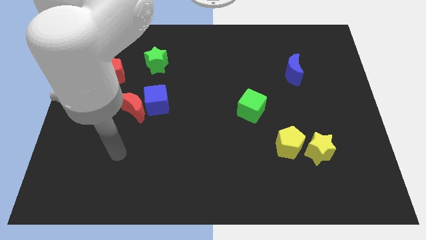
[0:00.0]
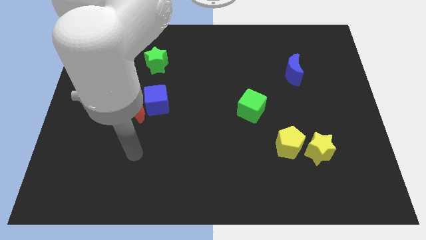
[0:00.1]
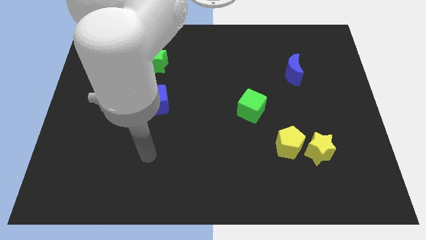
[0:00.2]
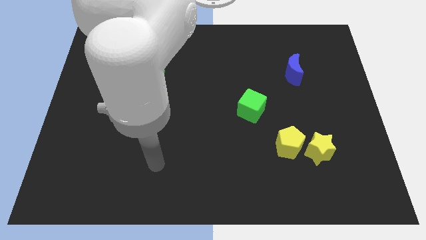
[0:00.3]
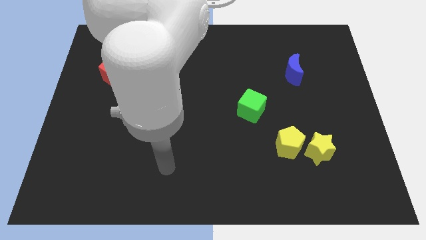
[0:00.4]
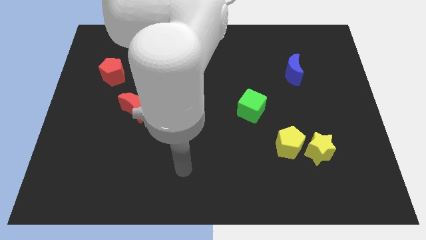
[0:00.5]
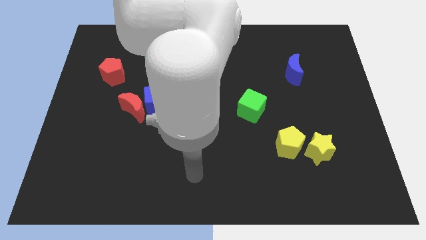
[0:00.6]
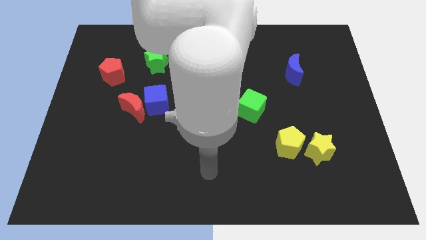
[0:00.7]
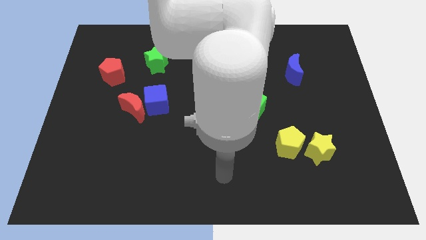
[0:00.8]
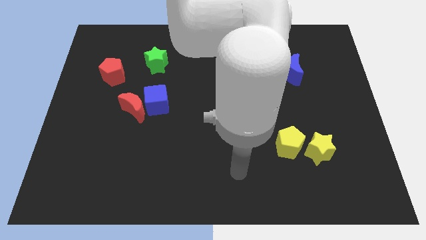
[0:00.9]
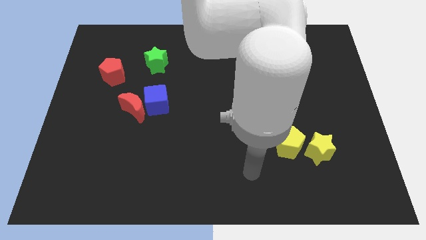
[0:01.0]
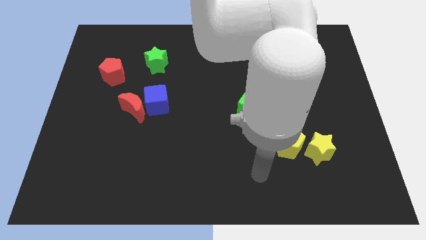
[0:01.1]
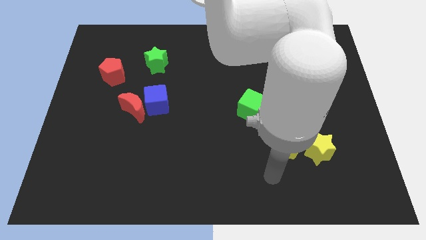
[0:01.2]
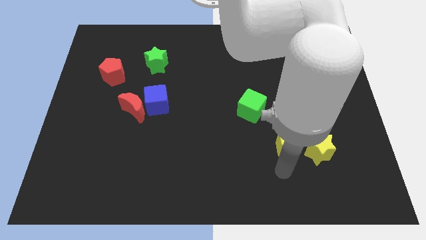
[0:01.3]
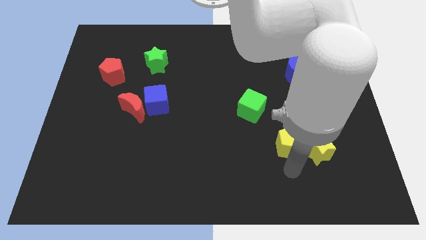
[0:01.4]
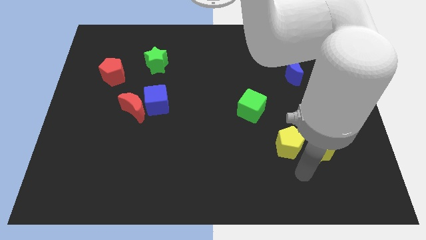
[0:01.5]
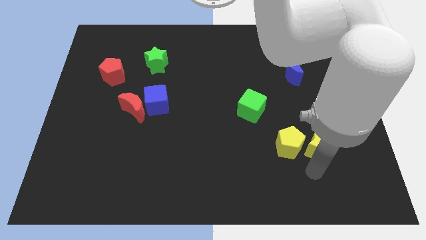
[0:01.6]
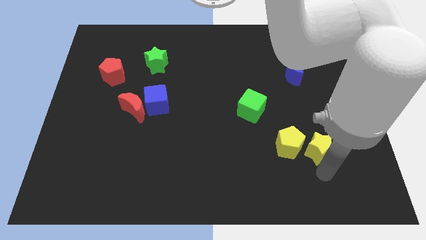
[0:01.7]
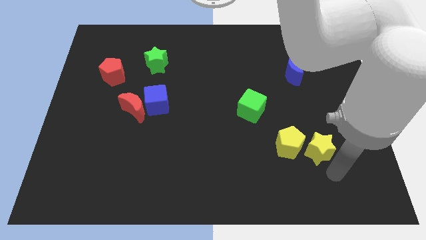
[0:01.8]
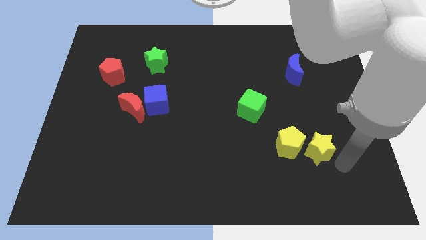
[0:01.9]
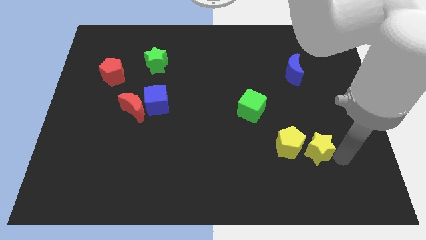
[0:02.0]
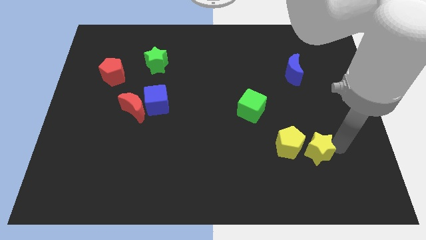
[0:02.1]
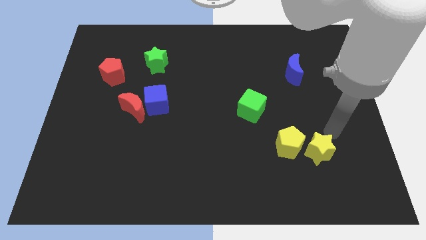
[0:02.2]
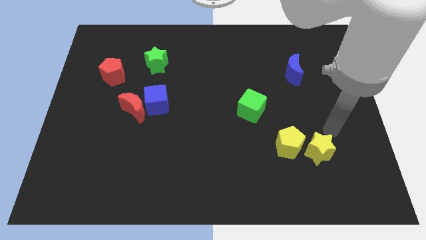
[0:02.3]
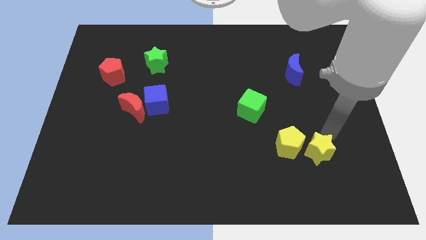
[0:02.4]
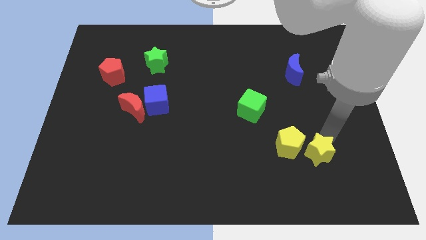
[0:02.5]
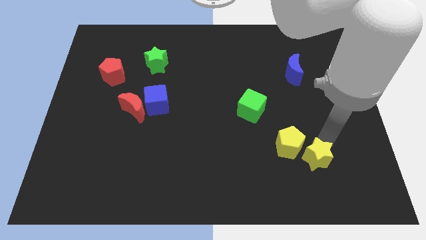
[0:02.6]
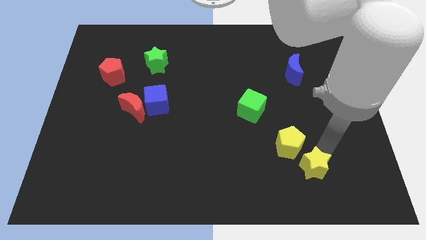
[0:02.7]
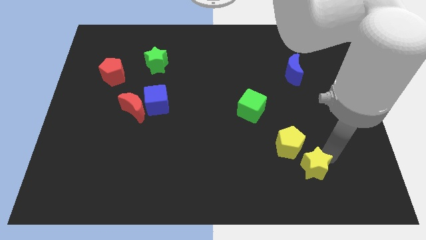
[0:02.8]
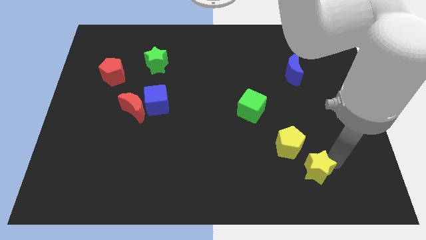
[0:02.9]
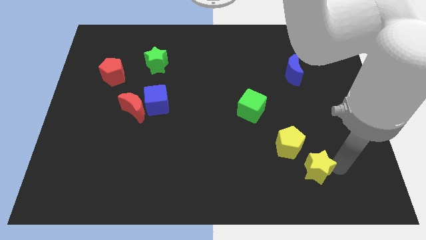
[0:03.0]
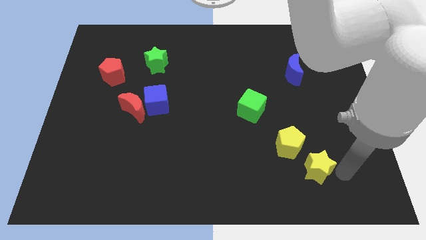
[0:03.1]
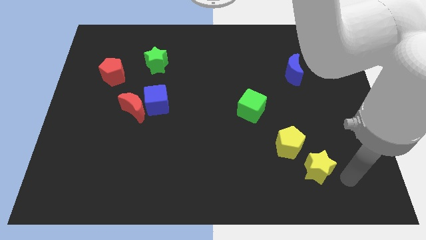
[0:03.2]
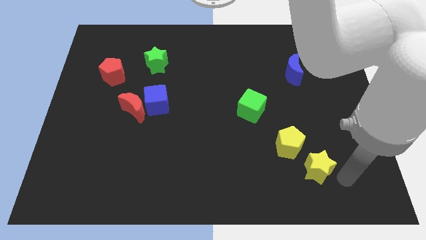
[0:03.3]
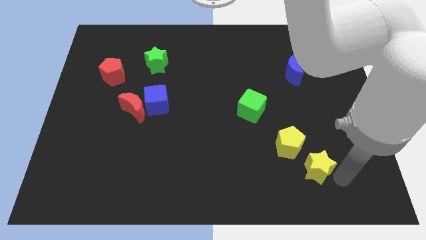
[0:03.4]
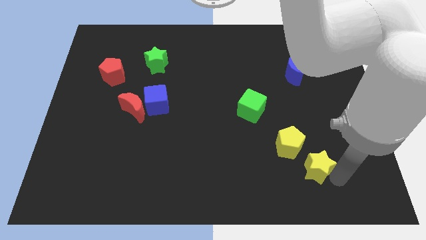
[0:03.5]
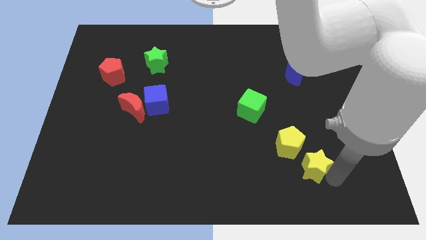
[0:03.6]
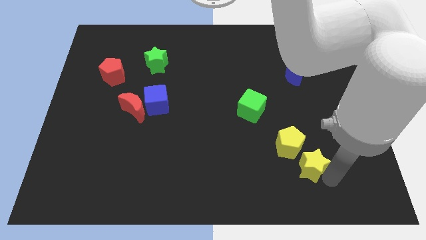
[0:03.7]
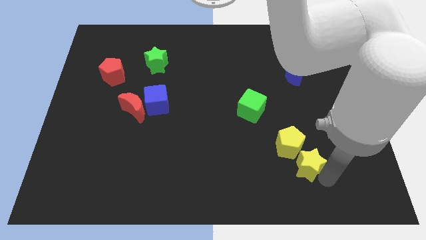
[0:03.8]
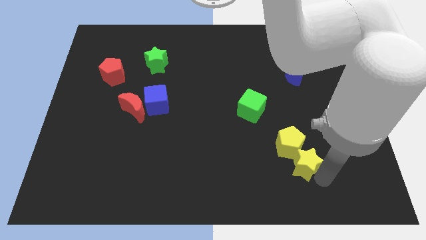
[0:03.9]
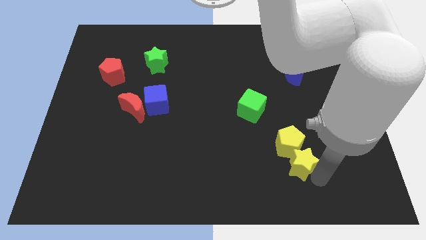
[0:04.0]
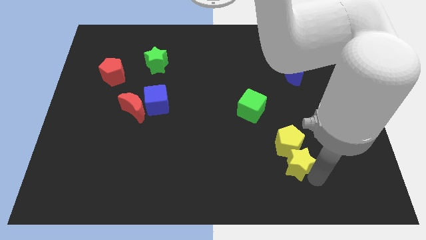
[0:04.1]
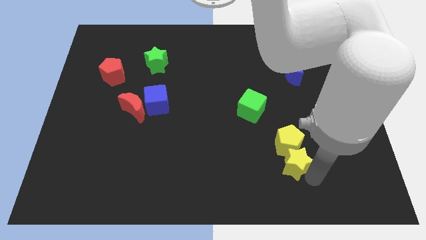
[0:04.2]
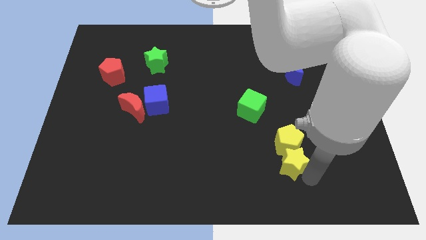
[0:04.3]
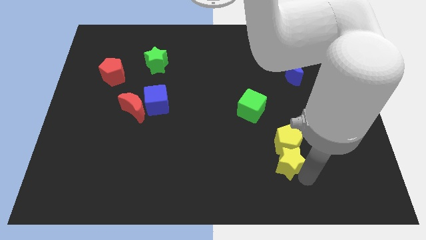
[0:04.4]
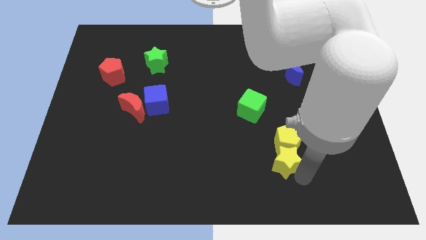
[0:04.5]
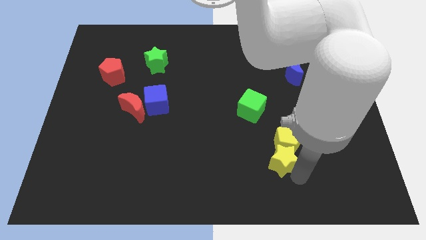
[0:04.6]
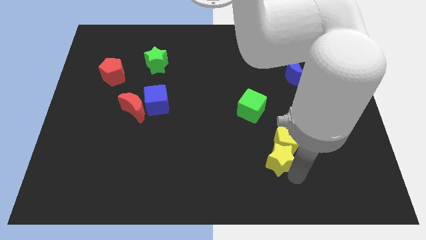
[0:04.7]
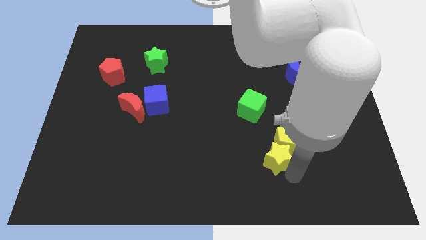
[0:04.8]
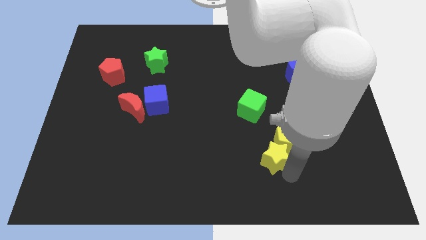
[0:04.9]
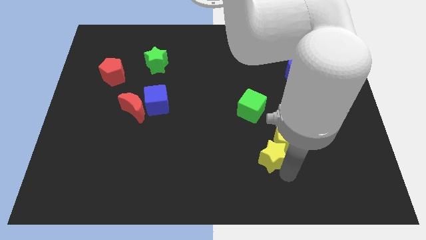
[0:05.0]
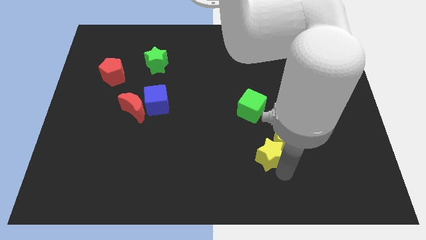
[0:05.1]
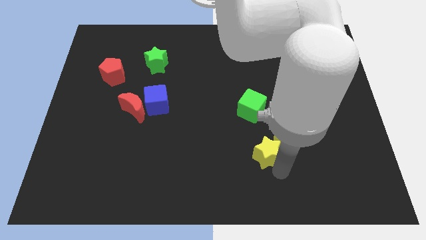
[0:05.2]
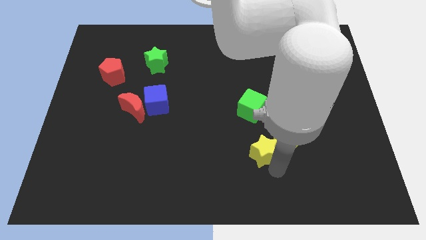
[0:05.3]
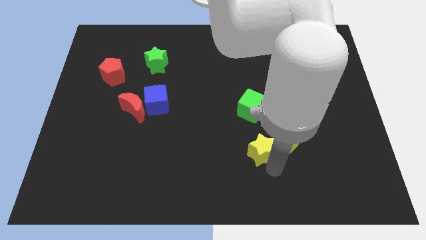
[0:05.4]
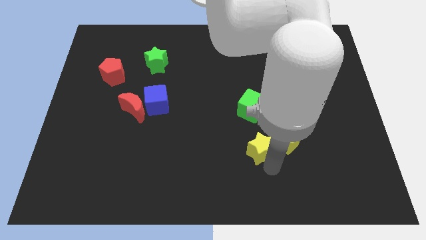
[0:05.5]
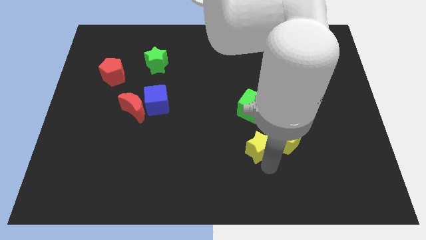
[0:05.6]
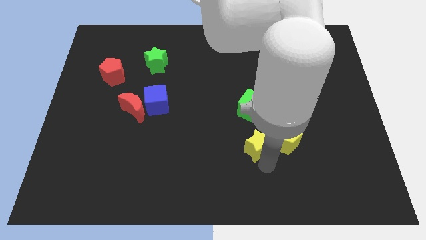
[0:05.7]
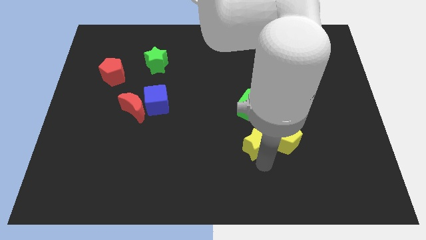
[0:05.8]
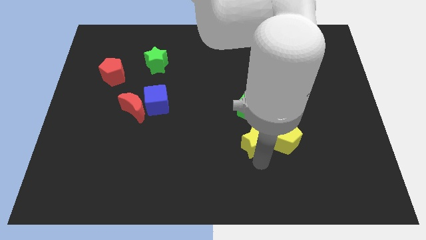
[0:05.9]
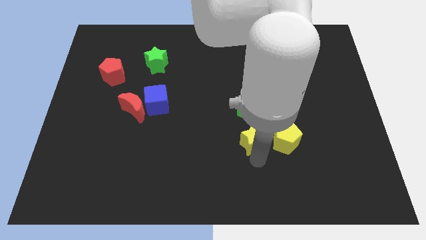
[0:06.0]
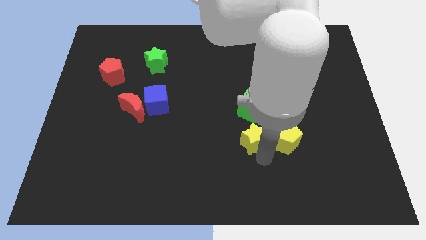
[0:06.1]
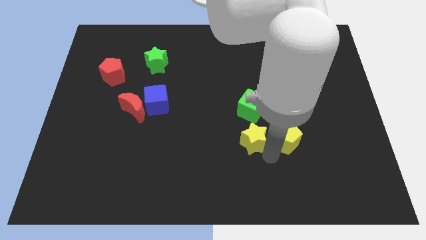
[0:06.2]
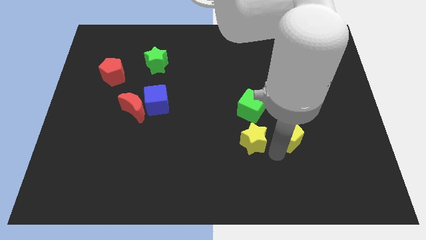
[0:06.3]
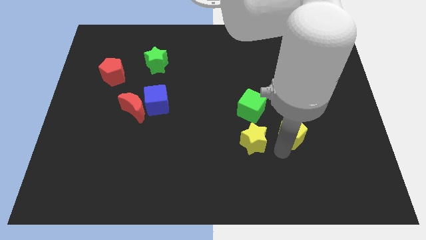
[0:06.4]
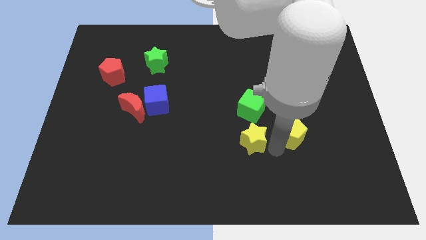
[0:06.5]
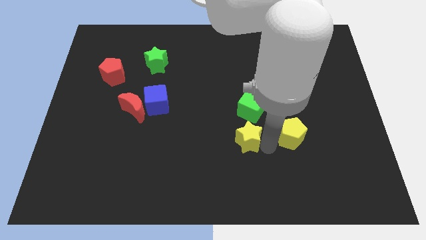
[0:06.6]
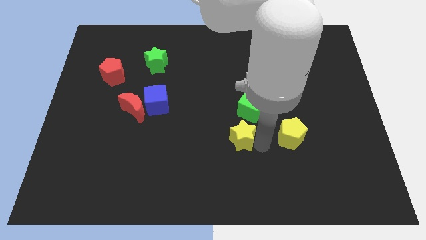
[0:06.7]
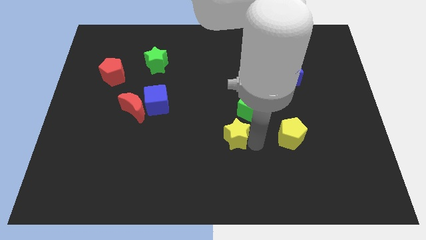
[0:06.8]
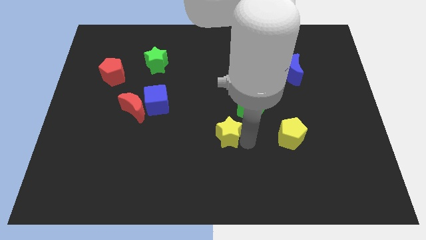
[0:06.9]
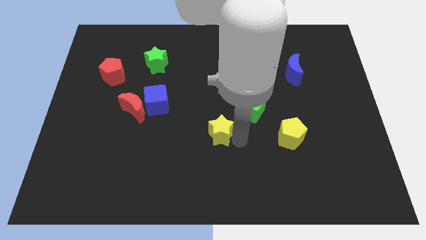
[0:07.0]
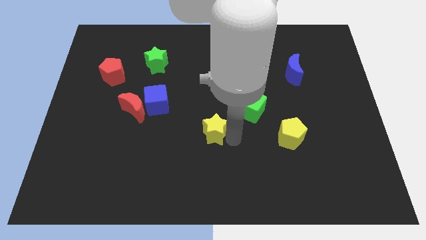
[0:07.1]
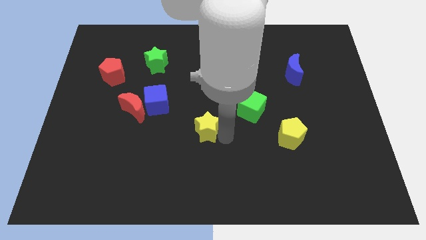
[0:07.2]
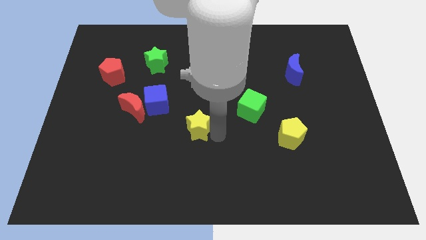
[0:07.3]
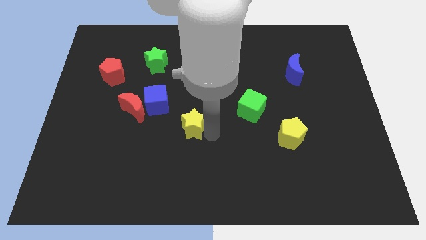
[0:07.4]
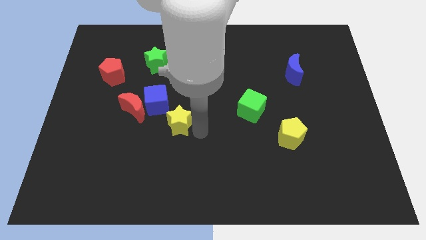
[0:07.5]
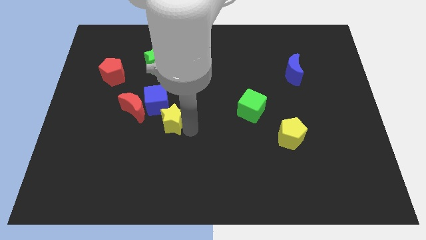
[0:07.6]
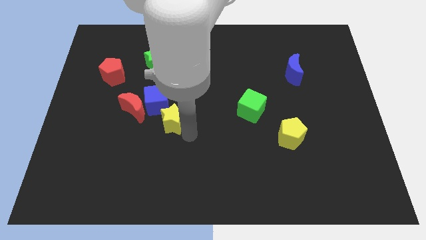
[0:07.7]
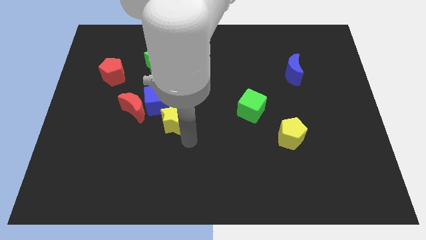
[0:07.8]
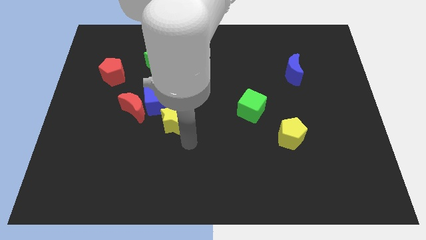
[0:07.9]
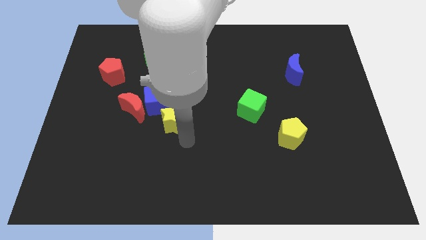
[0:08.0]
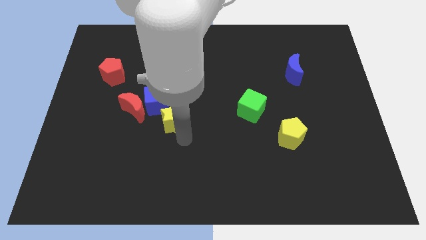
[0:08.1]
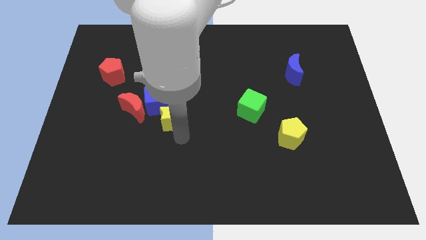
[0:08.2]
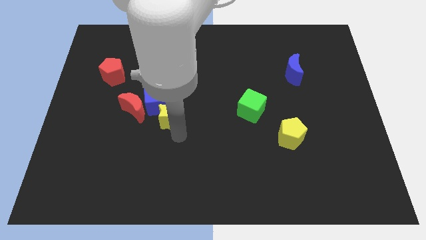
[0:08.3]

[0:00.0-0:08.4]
put the yellow star close to the blue cube
